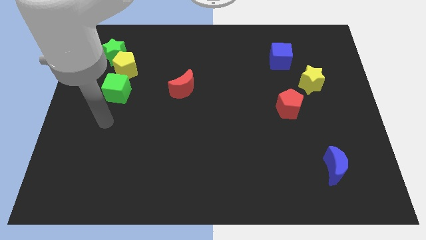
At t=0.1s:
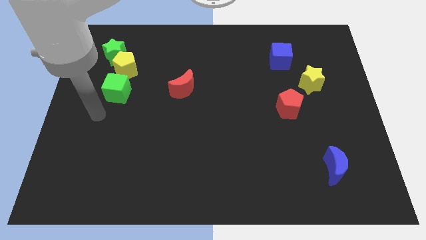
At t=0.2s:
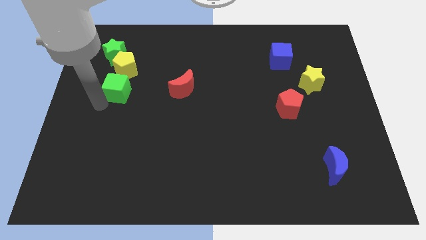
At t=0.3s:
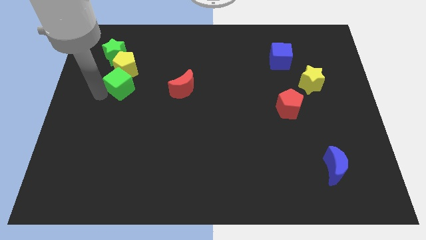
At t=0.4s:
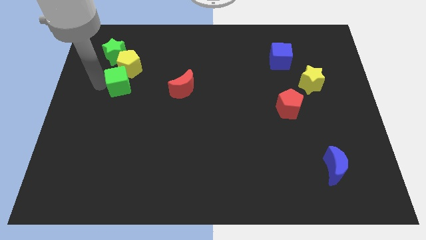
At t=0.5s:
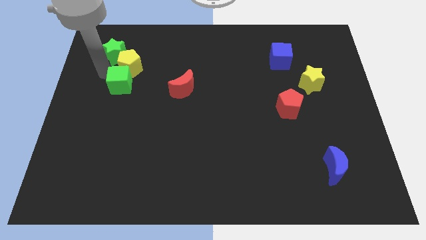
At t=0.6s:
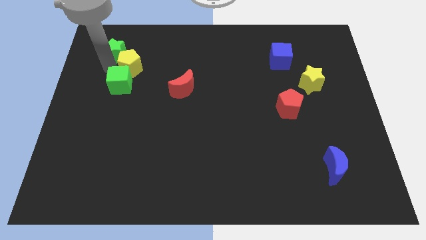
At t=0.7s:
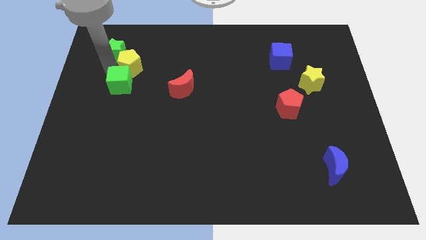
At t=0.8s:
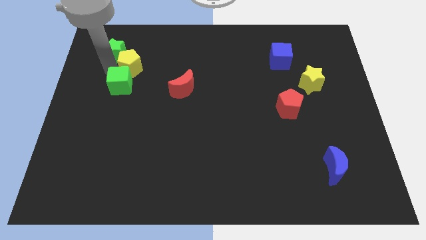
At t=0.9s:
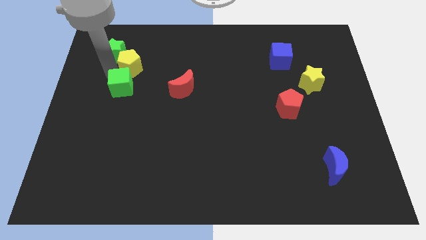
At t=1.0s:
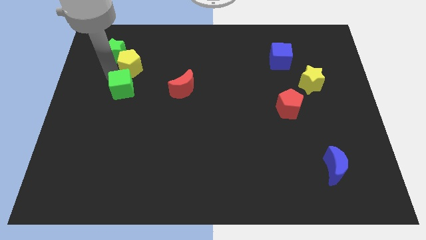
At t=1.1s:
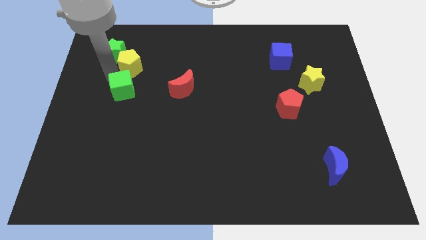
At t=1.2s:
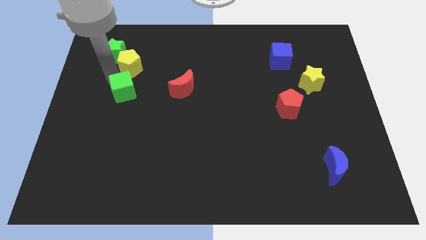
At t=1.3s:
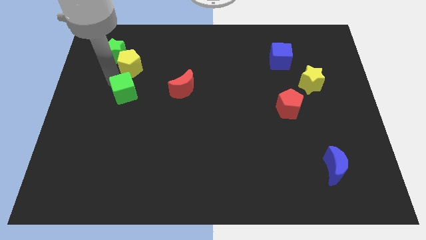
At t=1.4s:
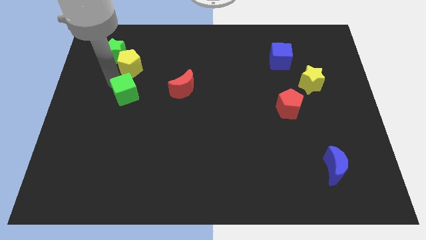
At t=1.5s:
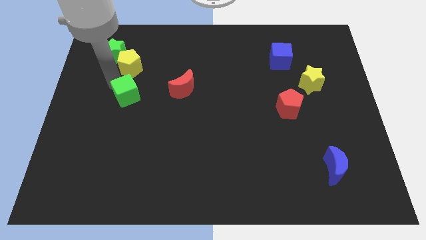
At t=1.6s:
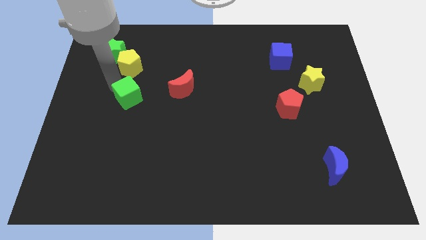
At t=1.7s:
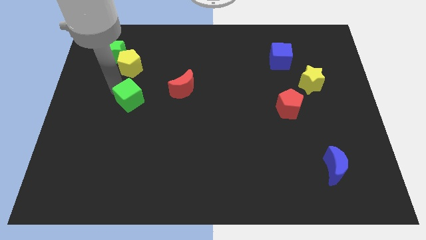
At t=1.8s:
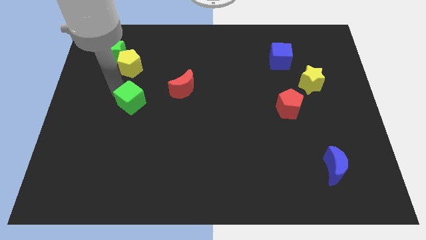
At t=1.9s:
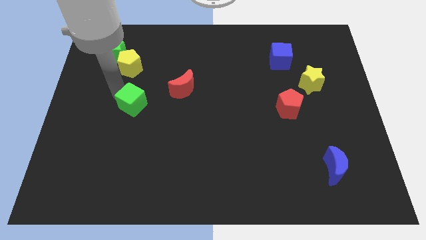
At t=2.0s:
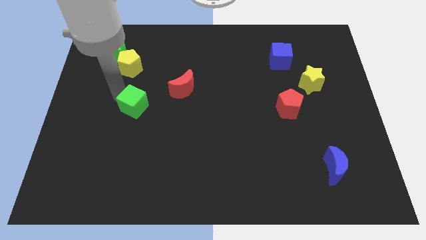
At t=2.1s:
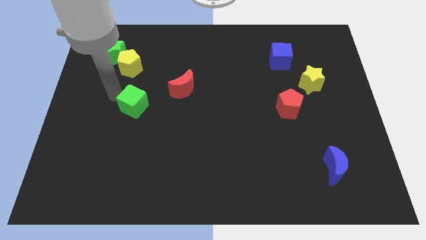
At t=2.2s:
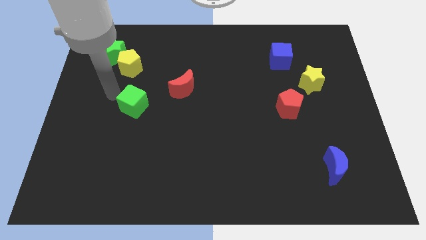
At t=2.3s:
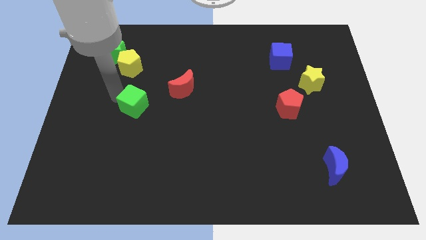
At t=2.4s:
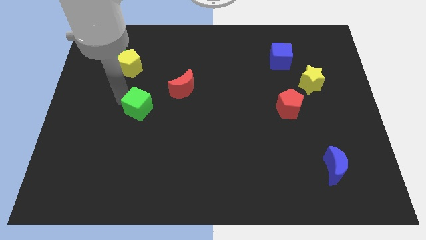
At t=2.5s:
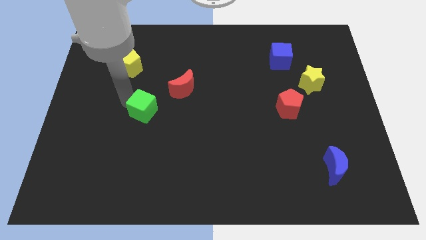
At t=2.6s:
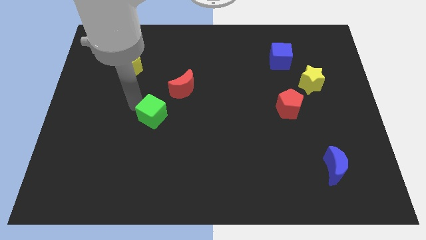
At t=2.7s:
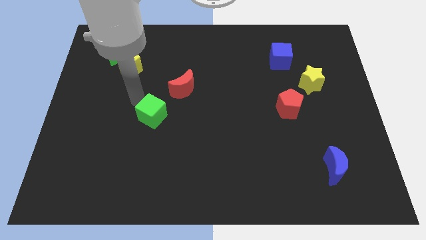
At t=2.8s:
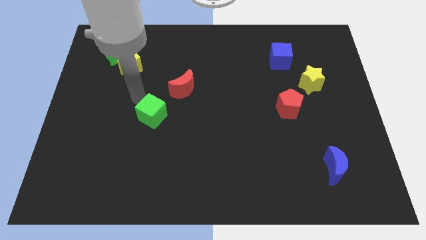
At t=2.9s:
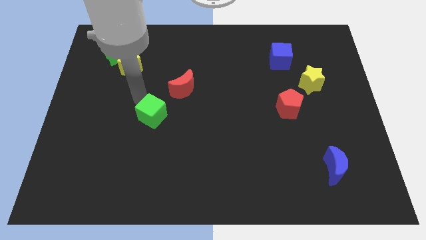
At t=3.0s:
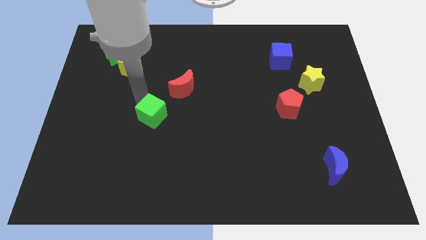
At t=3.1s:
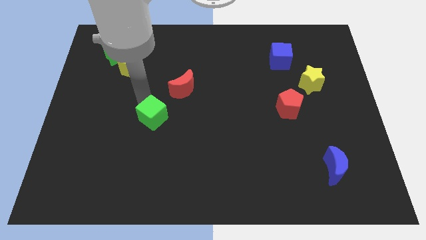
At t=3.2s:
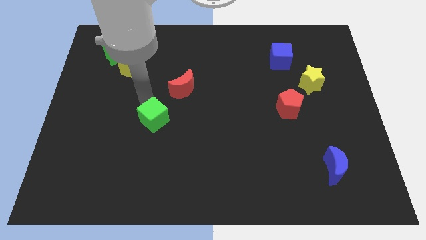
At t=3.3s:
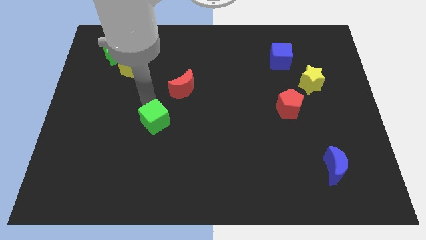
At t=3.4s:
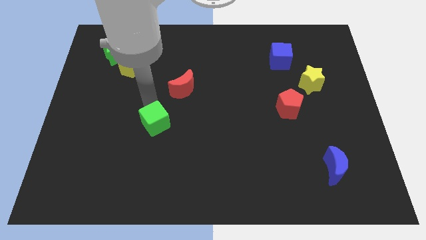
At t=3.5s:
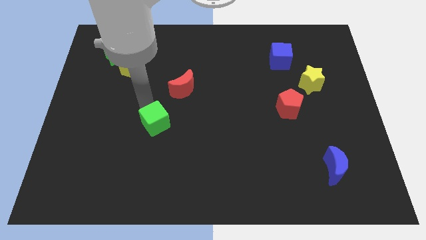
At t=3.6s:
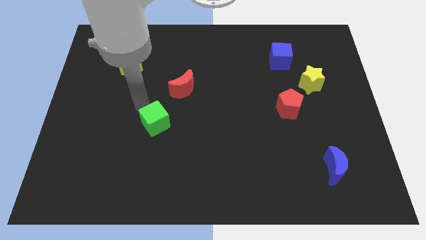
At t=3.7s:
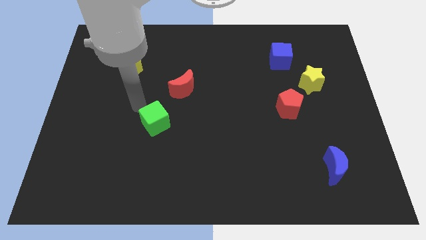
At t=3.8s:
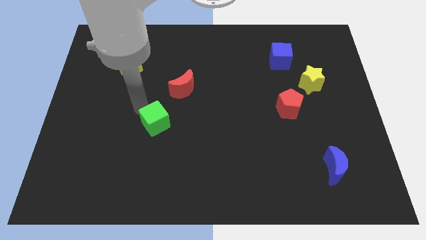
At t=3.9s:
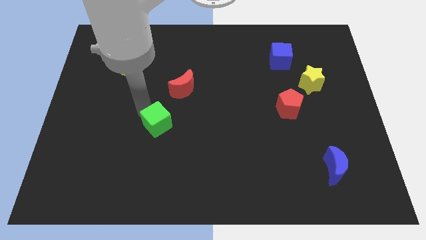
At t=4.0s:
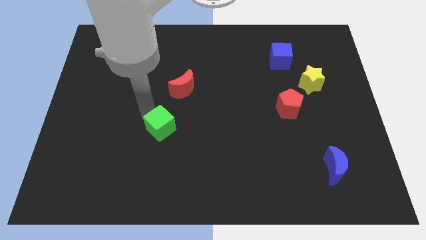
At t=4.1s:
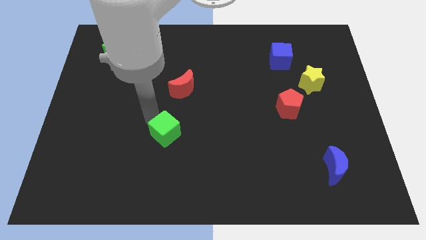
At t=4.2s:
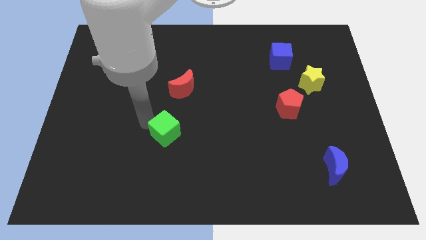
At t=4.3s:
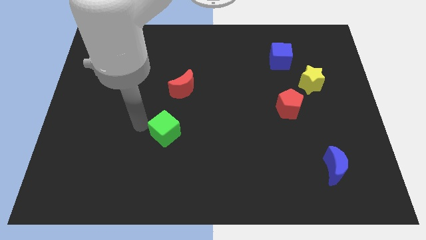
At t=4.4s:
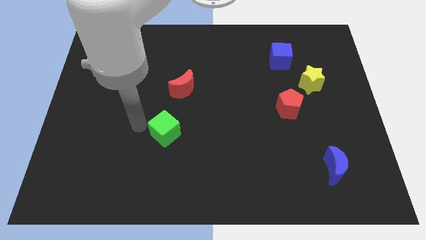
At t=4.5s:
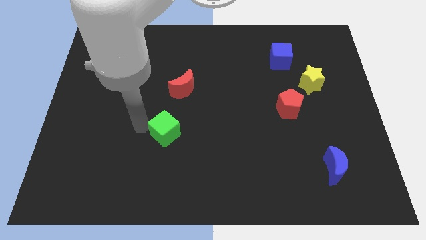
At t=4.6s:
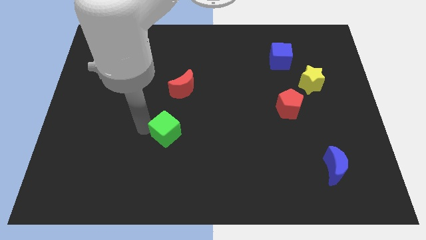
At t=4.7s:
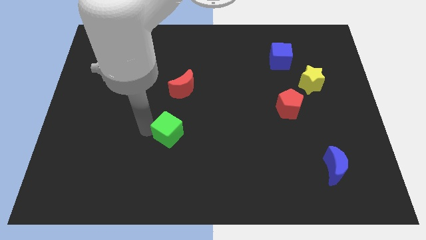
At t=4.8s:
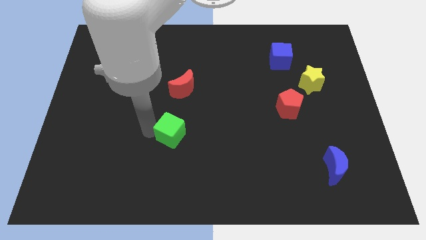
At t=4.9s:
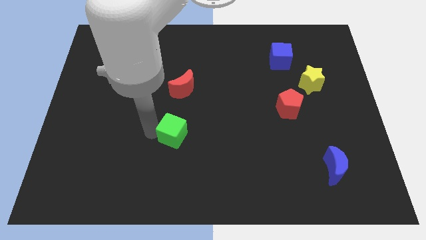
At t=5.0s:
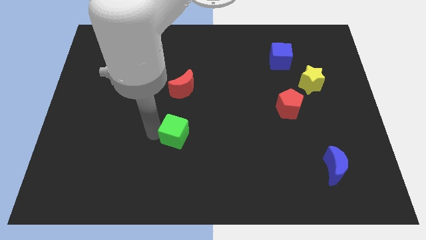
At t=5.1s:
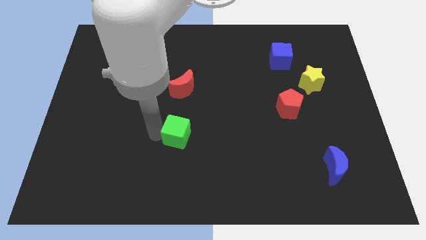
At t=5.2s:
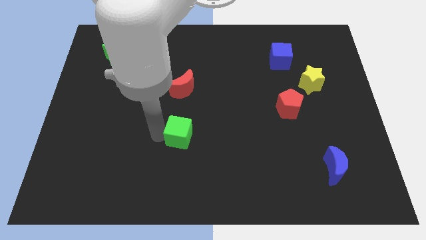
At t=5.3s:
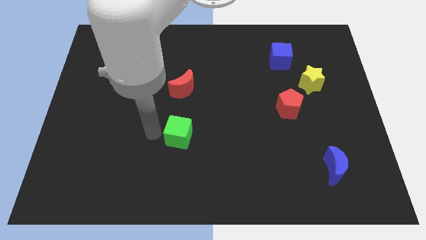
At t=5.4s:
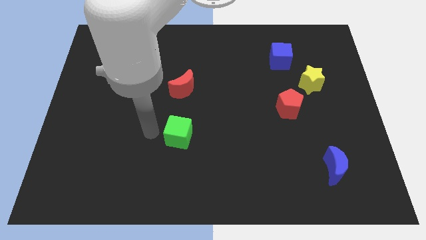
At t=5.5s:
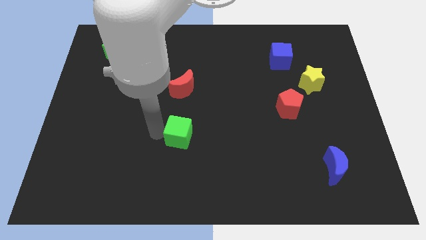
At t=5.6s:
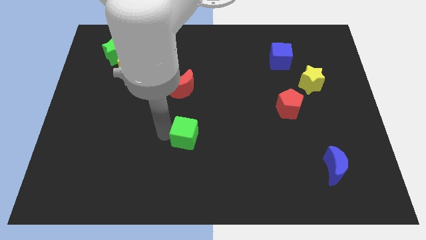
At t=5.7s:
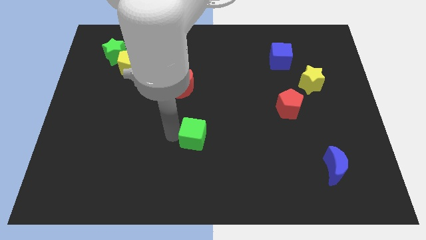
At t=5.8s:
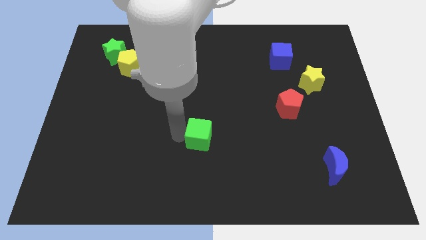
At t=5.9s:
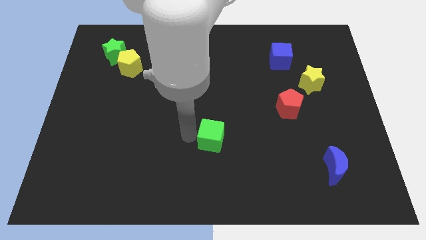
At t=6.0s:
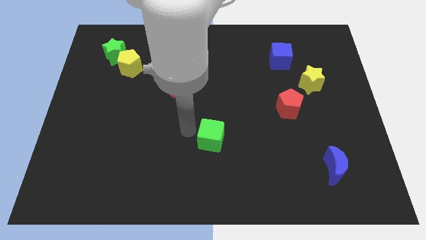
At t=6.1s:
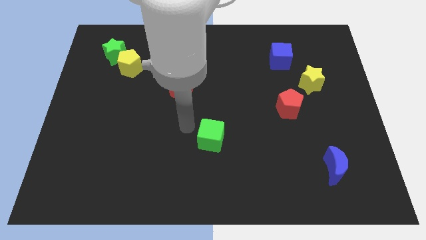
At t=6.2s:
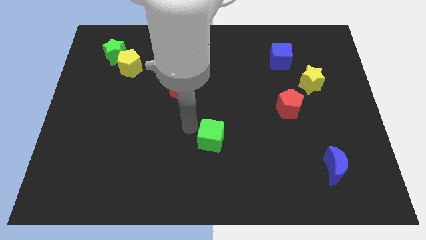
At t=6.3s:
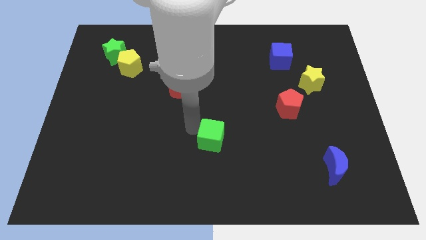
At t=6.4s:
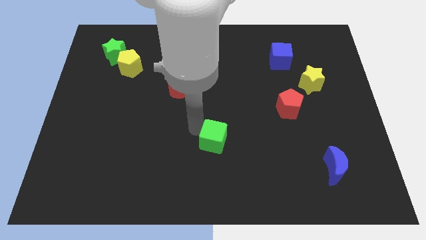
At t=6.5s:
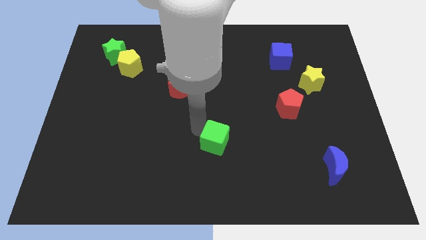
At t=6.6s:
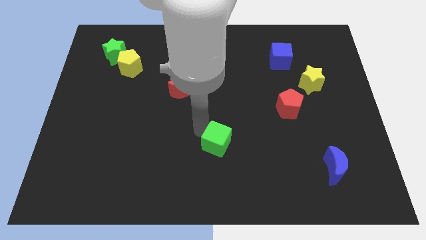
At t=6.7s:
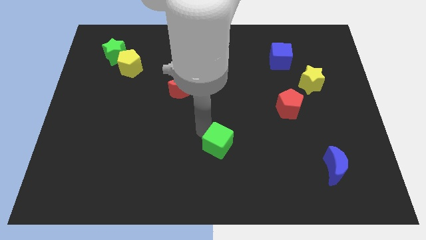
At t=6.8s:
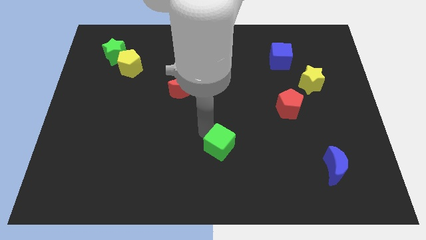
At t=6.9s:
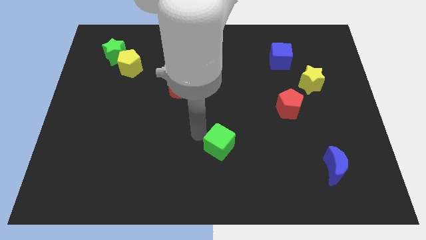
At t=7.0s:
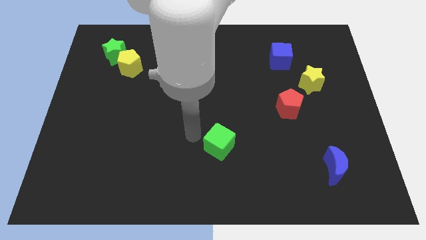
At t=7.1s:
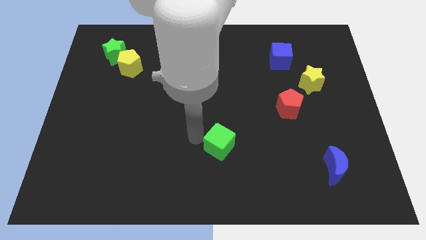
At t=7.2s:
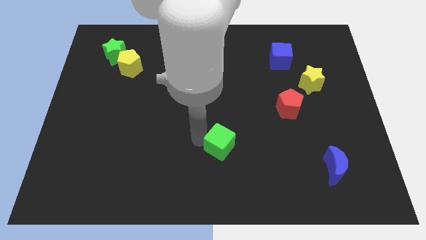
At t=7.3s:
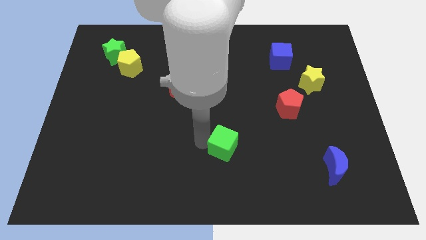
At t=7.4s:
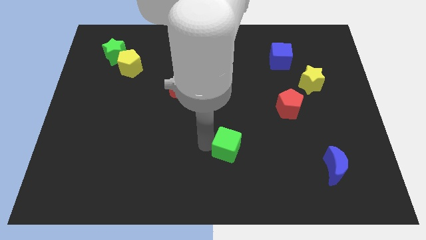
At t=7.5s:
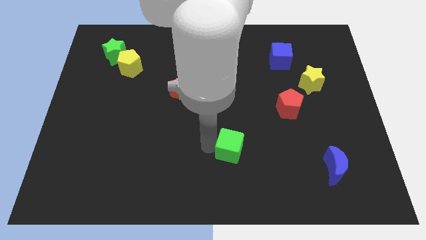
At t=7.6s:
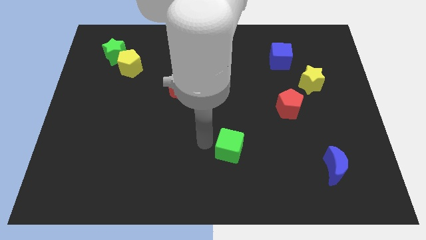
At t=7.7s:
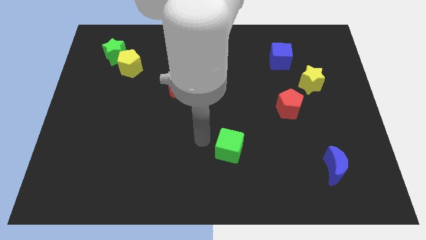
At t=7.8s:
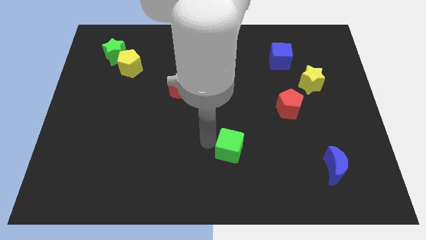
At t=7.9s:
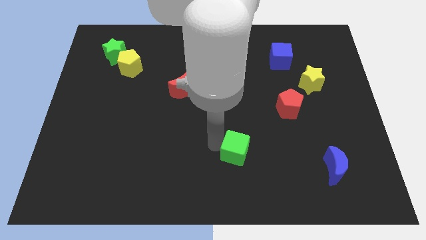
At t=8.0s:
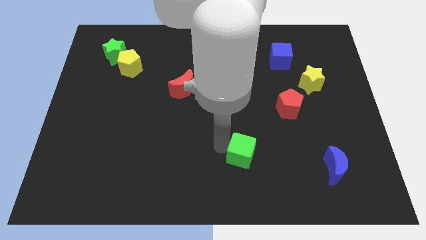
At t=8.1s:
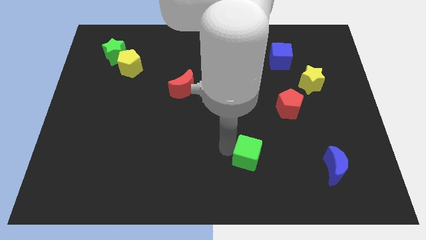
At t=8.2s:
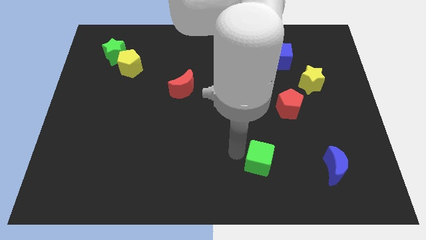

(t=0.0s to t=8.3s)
slide the green cube to the left of the blue moon
